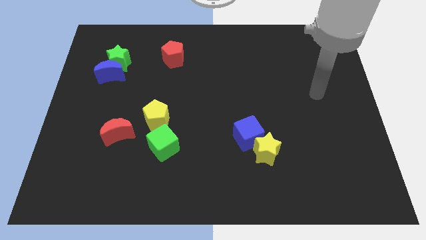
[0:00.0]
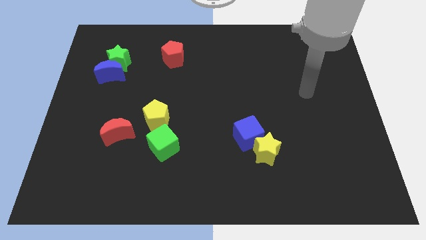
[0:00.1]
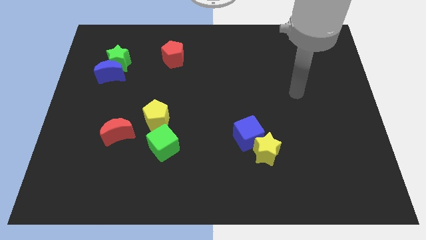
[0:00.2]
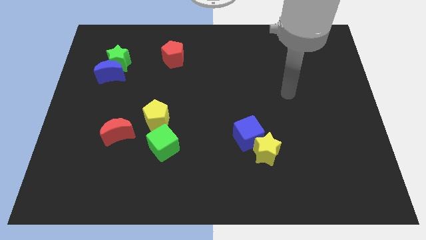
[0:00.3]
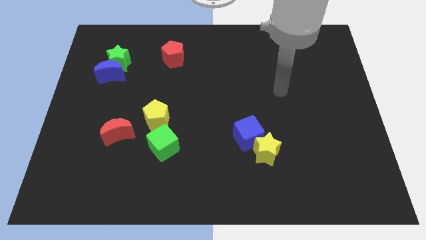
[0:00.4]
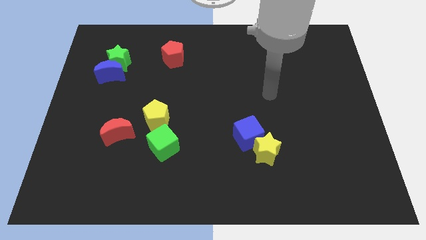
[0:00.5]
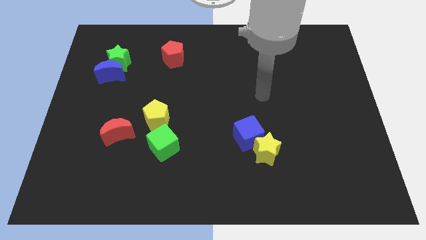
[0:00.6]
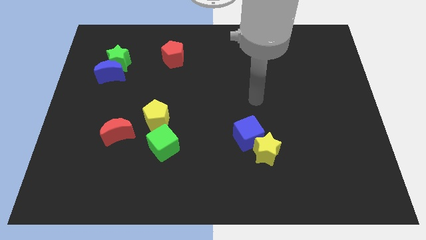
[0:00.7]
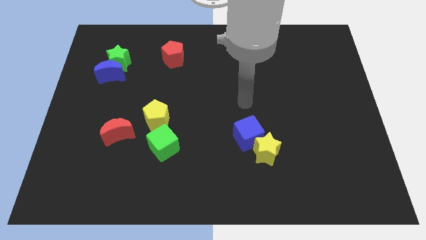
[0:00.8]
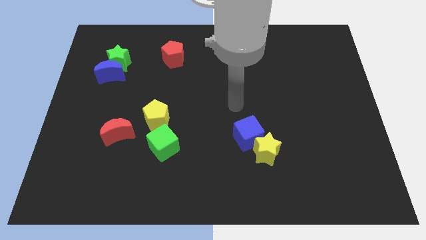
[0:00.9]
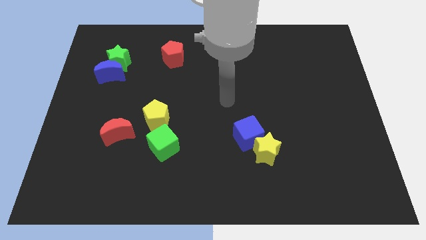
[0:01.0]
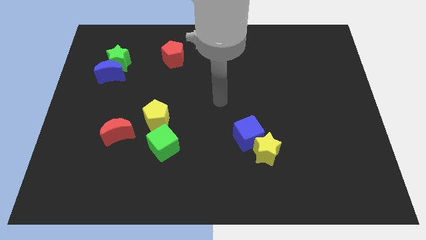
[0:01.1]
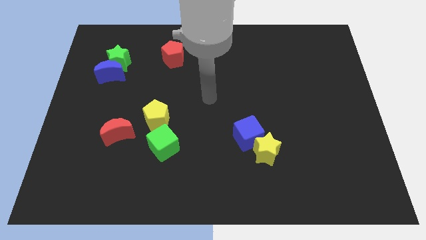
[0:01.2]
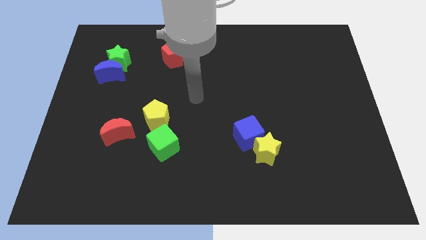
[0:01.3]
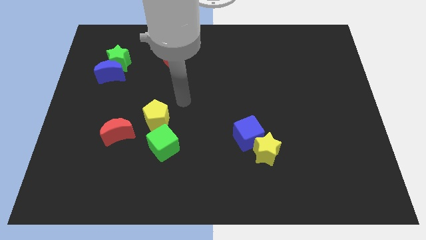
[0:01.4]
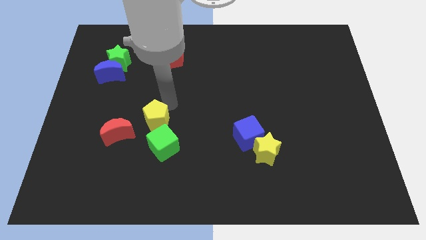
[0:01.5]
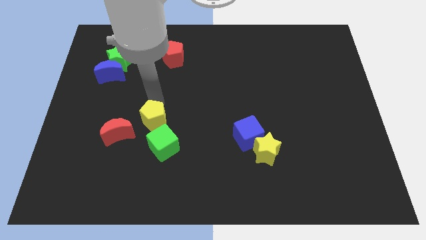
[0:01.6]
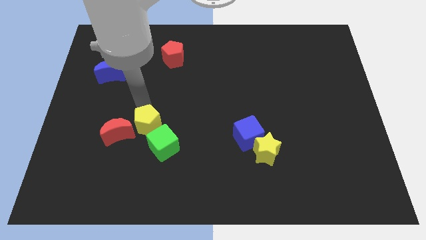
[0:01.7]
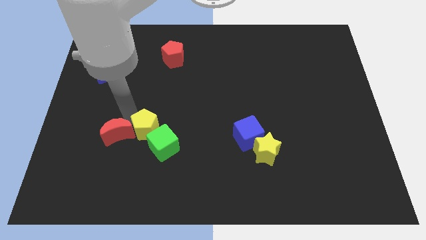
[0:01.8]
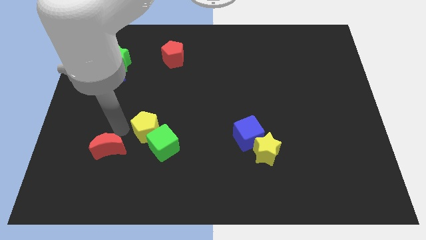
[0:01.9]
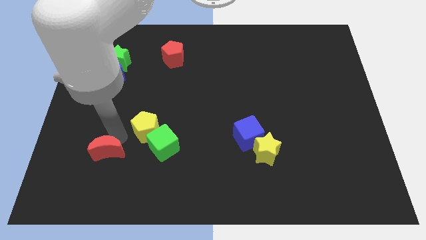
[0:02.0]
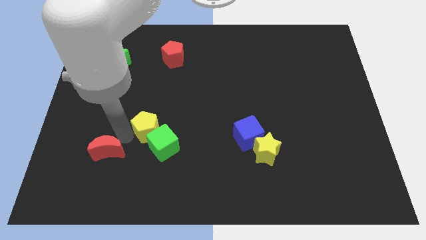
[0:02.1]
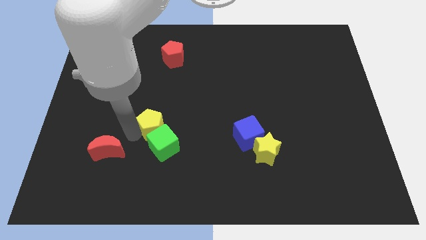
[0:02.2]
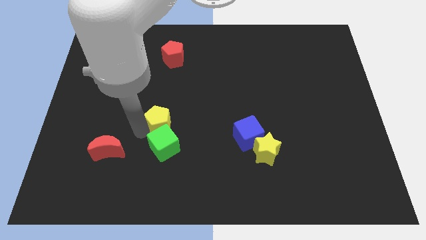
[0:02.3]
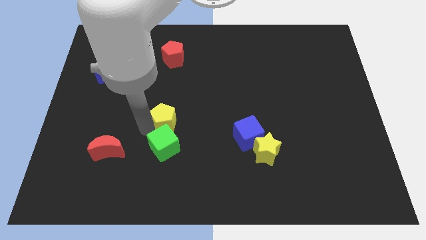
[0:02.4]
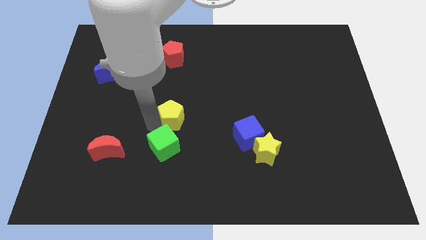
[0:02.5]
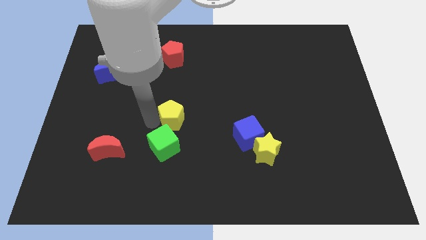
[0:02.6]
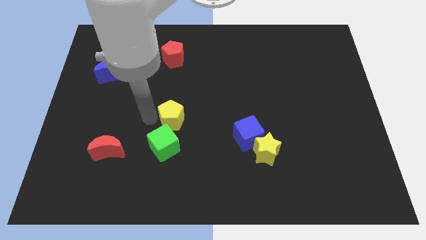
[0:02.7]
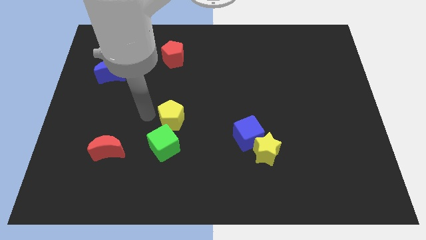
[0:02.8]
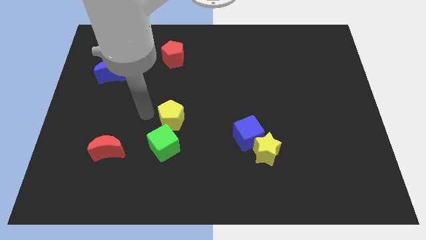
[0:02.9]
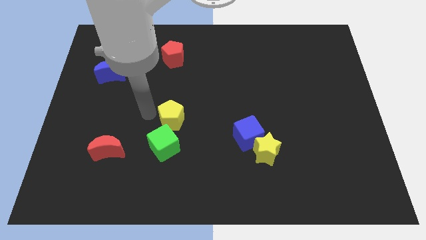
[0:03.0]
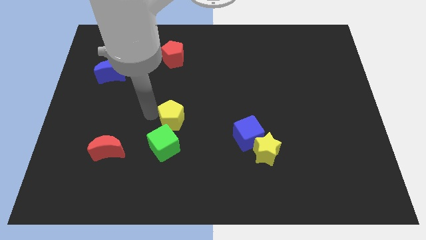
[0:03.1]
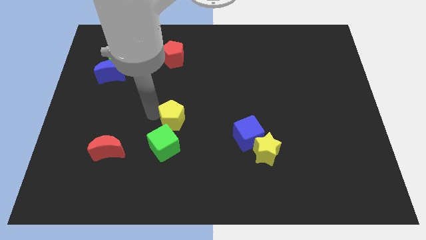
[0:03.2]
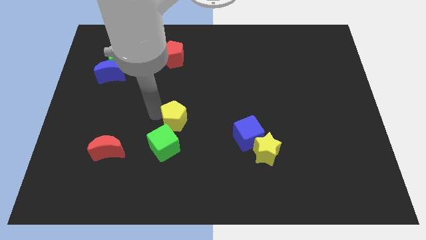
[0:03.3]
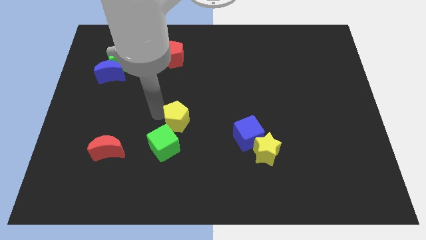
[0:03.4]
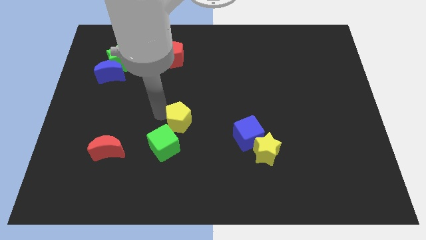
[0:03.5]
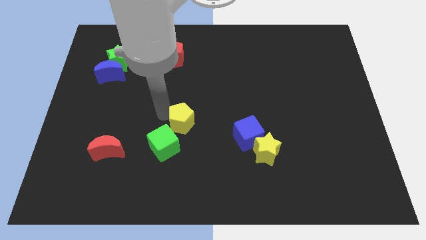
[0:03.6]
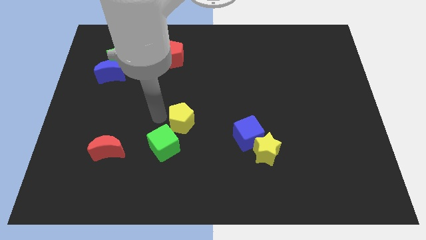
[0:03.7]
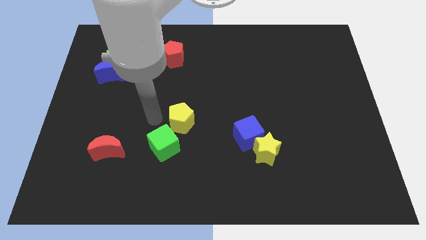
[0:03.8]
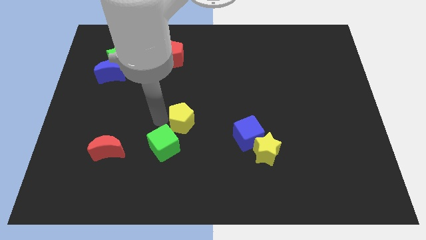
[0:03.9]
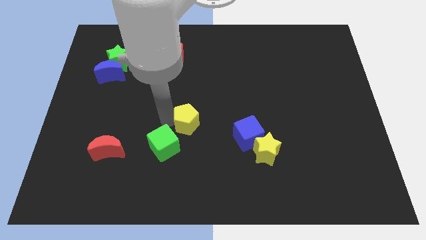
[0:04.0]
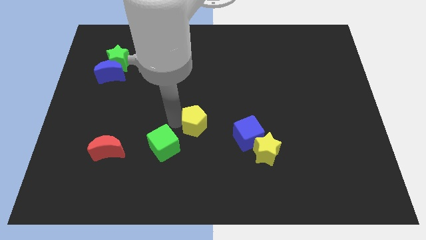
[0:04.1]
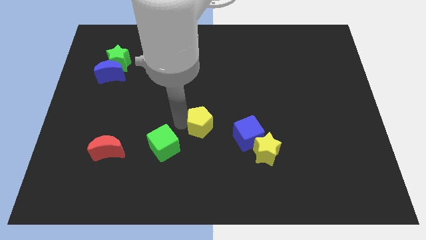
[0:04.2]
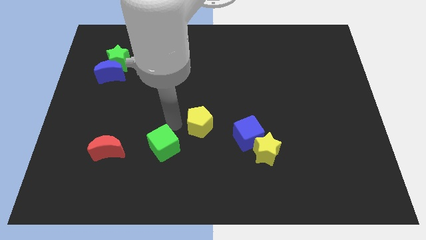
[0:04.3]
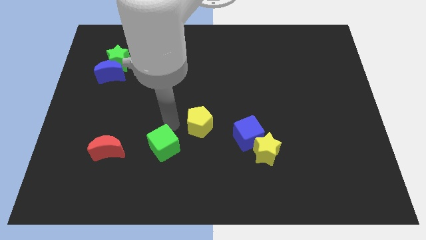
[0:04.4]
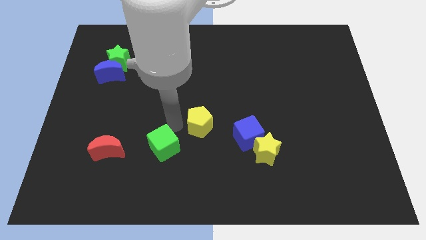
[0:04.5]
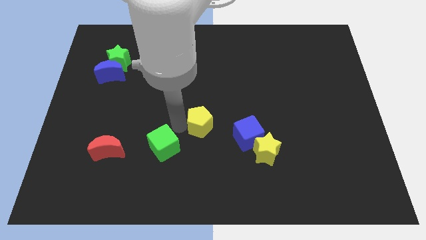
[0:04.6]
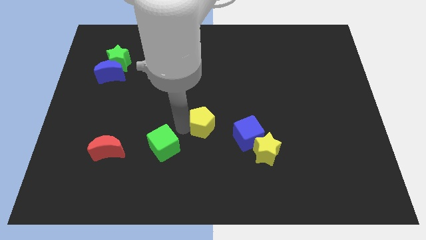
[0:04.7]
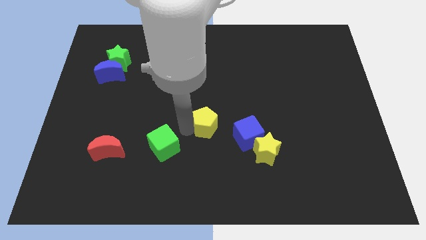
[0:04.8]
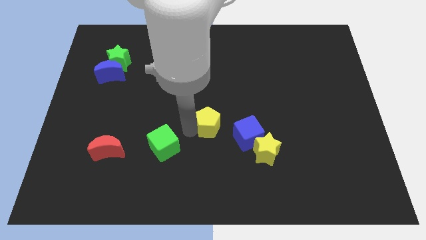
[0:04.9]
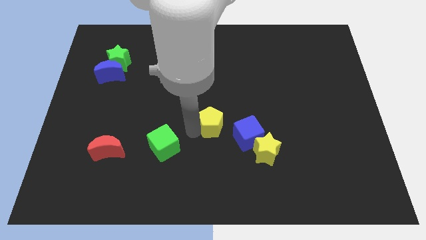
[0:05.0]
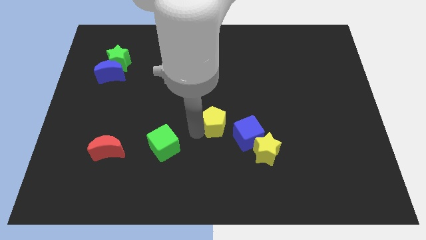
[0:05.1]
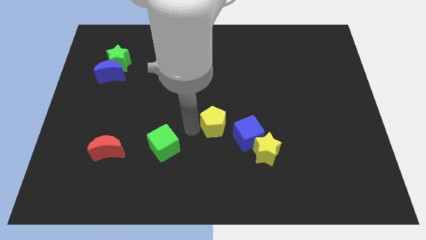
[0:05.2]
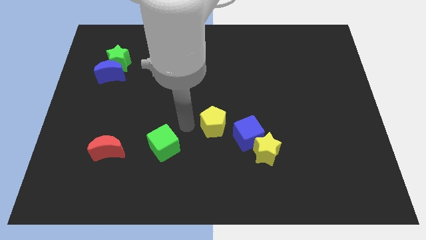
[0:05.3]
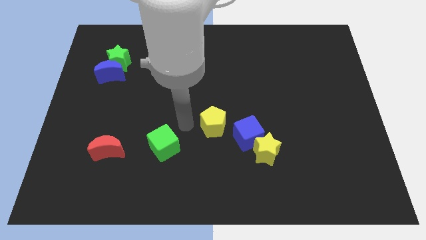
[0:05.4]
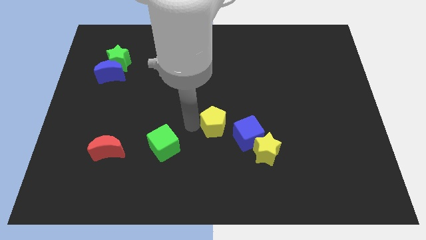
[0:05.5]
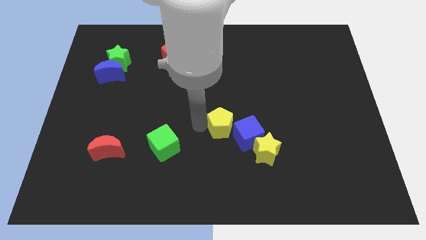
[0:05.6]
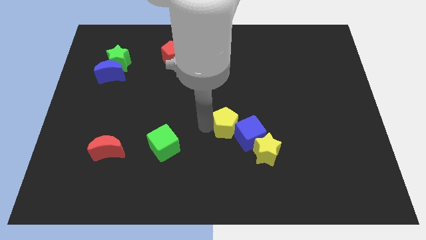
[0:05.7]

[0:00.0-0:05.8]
push the yellow pentagon close to the blue cube

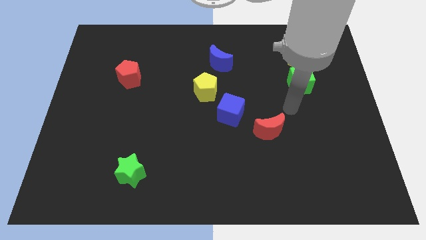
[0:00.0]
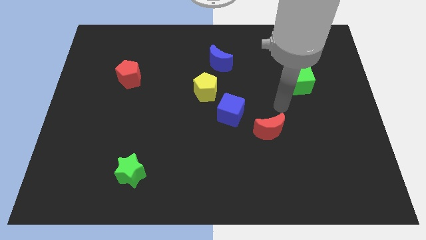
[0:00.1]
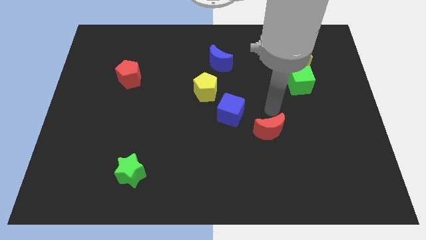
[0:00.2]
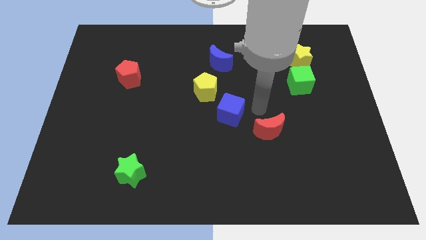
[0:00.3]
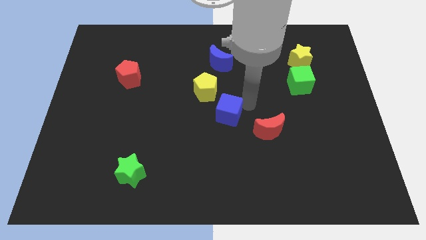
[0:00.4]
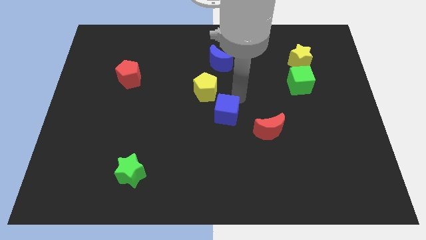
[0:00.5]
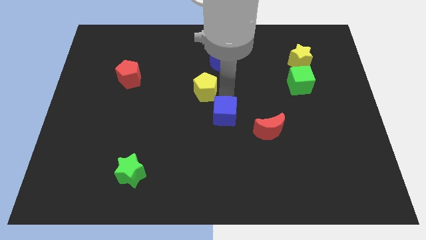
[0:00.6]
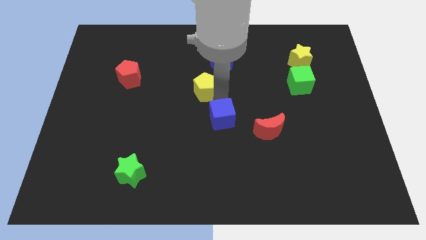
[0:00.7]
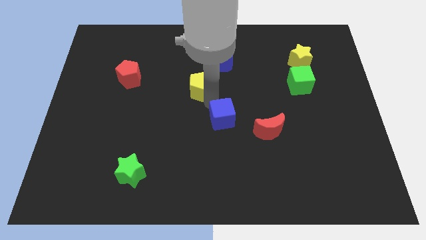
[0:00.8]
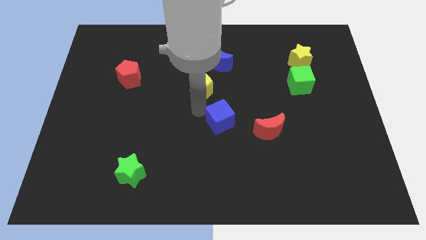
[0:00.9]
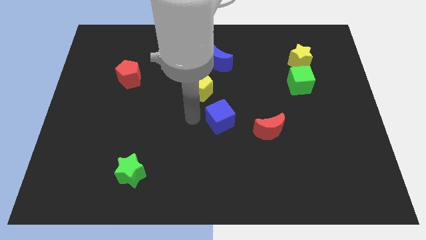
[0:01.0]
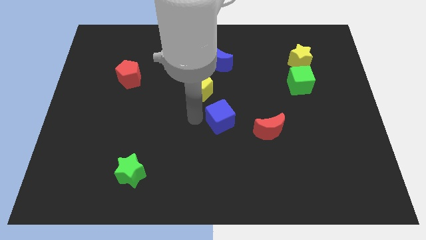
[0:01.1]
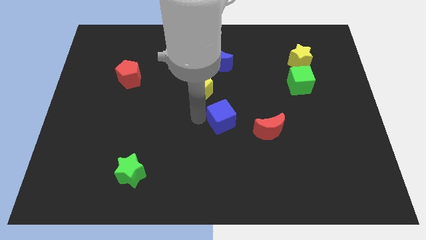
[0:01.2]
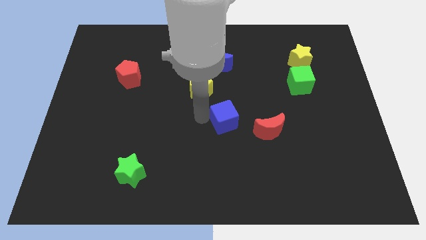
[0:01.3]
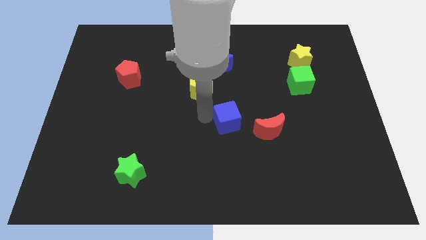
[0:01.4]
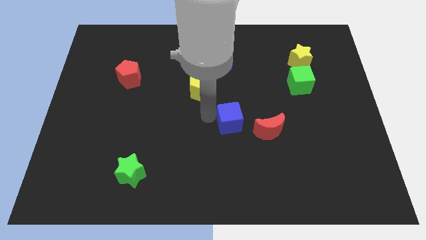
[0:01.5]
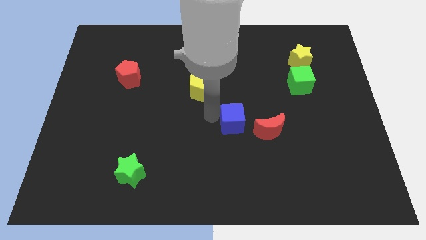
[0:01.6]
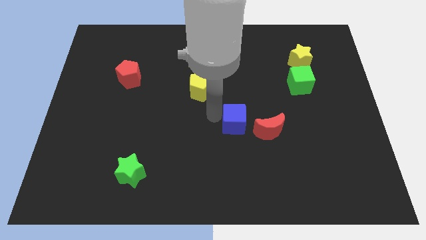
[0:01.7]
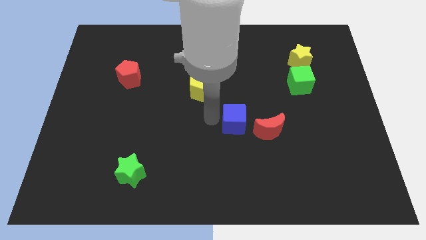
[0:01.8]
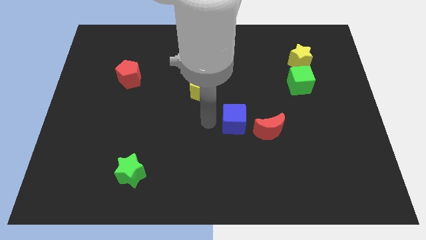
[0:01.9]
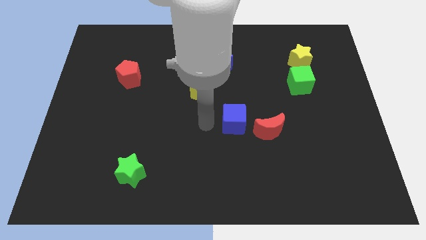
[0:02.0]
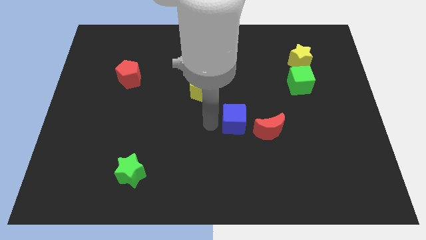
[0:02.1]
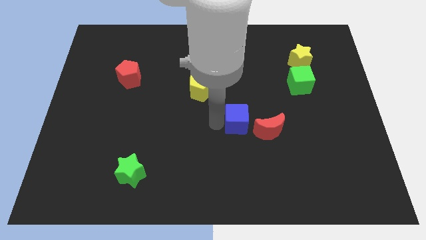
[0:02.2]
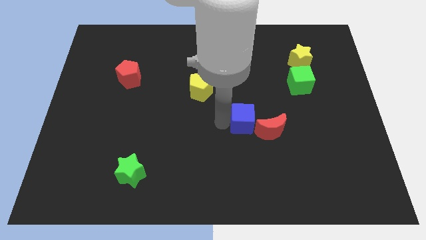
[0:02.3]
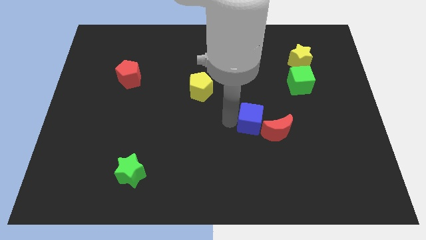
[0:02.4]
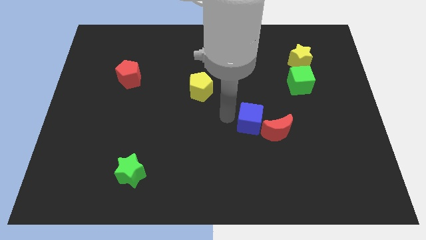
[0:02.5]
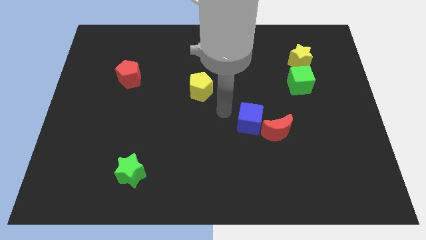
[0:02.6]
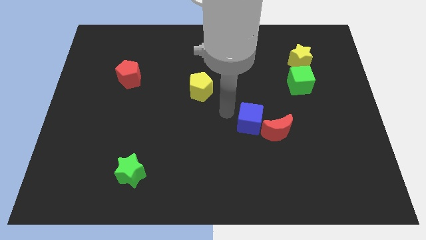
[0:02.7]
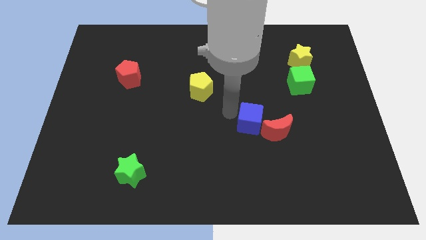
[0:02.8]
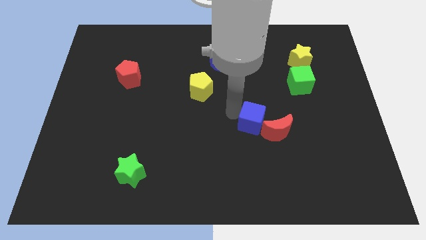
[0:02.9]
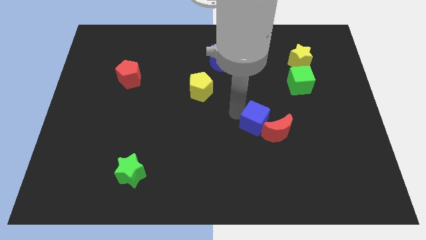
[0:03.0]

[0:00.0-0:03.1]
slide the blue cube towards the red moon
